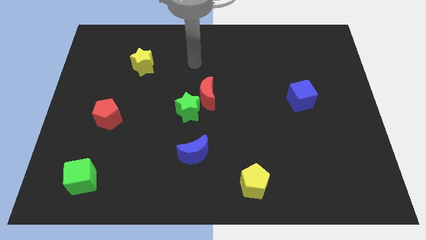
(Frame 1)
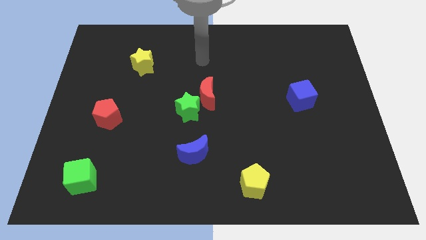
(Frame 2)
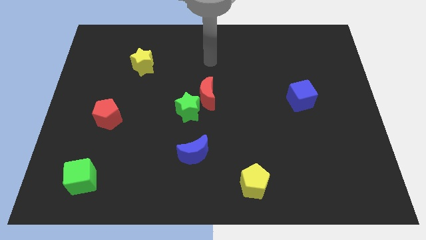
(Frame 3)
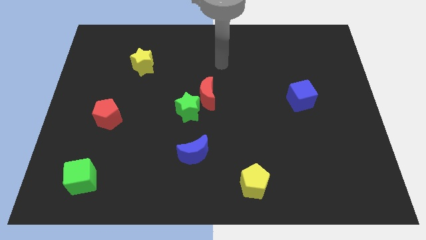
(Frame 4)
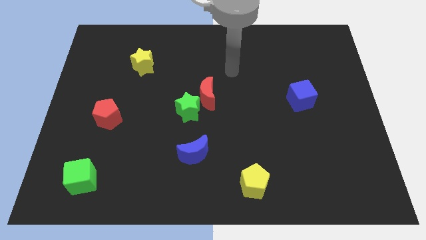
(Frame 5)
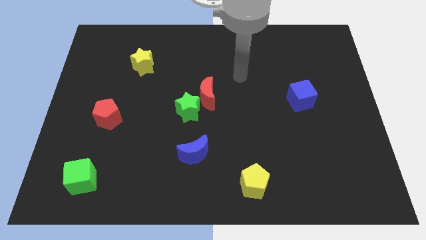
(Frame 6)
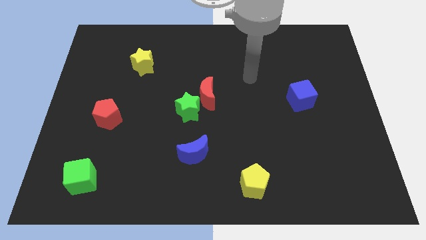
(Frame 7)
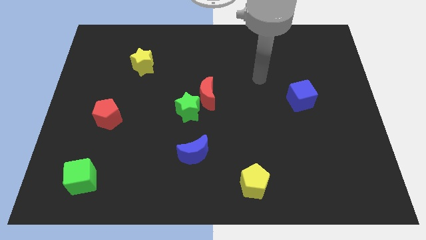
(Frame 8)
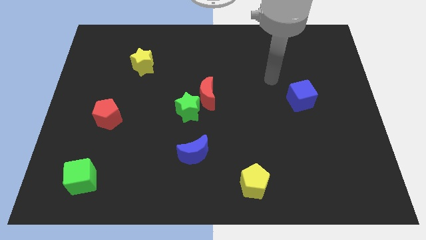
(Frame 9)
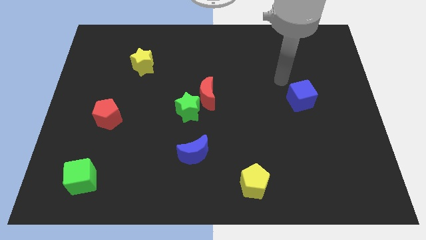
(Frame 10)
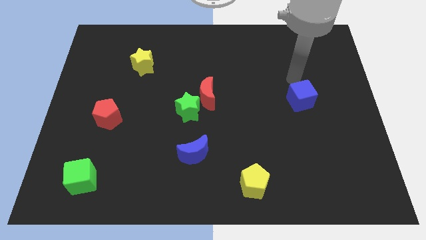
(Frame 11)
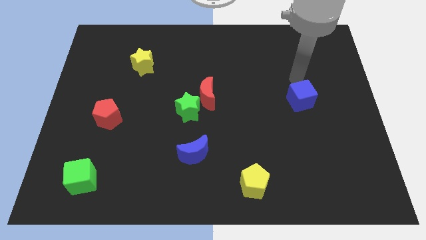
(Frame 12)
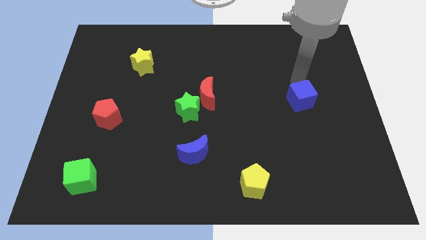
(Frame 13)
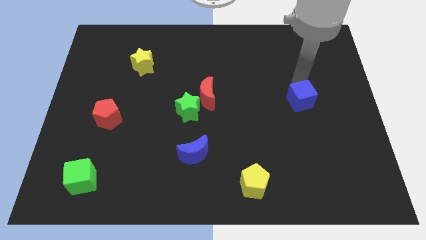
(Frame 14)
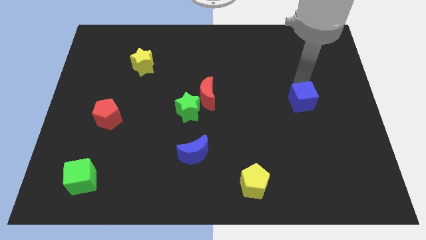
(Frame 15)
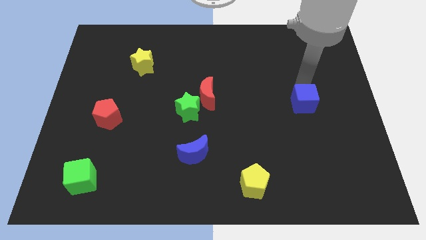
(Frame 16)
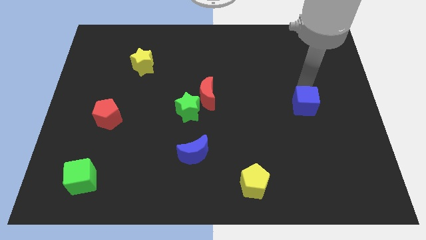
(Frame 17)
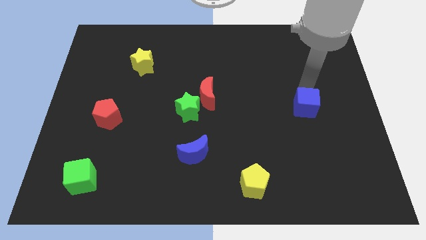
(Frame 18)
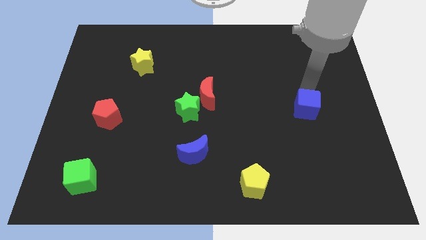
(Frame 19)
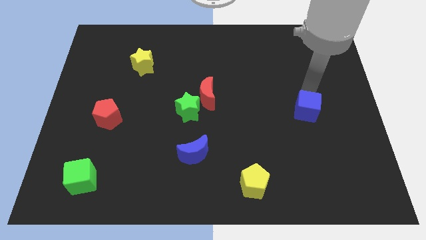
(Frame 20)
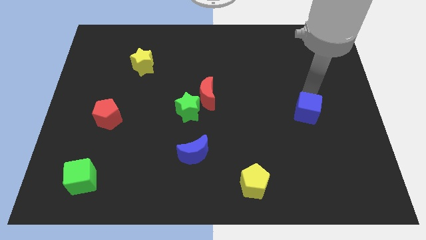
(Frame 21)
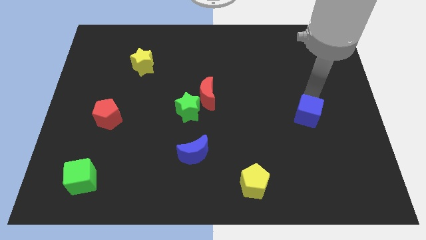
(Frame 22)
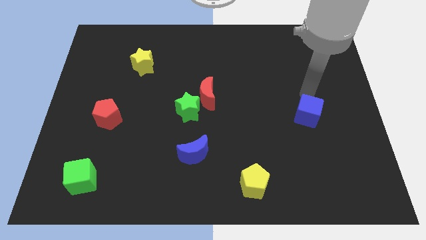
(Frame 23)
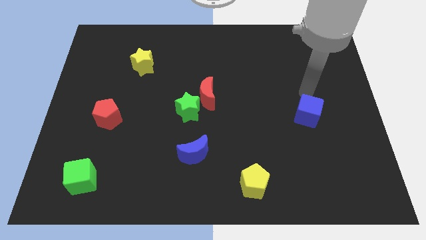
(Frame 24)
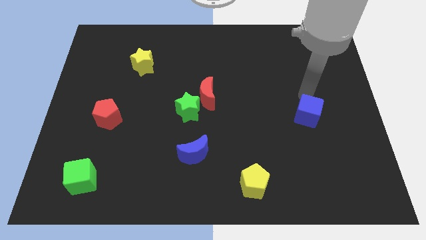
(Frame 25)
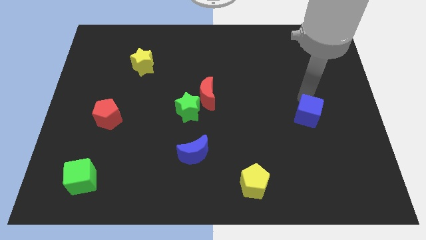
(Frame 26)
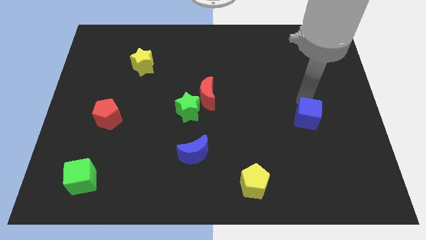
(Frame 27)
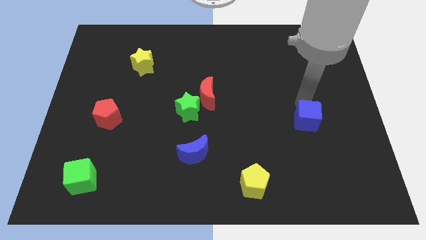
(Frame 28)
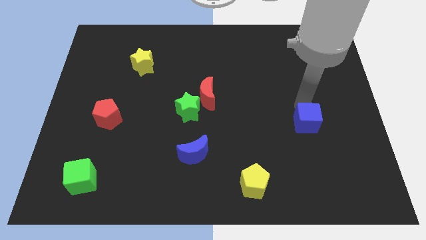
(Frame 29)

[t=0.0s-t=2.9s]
slightly slide the blue cube down

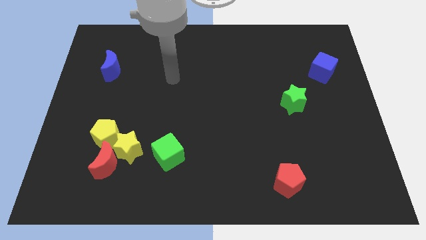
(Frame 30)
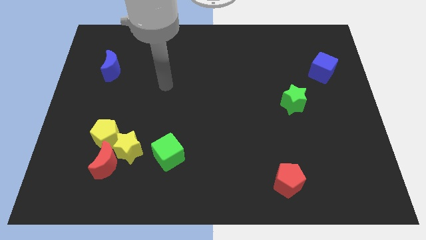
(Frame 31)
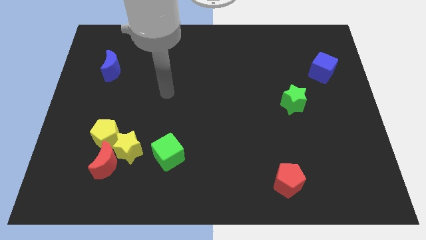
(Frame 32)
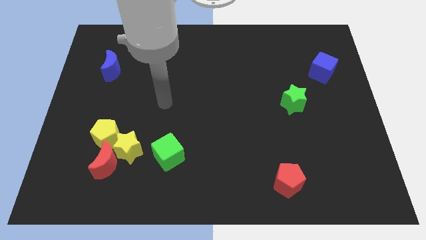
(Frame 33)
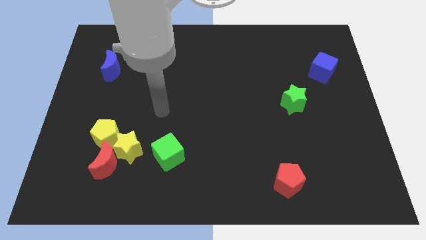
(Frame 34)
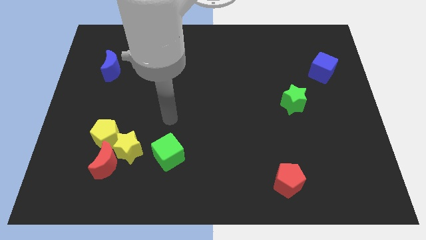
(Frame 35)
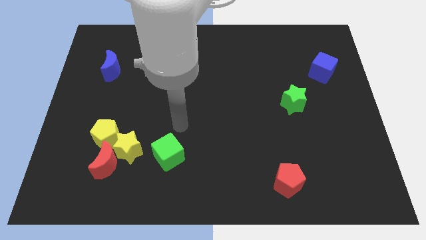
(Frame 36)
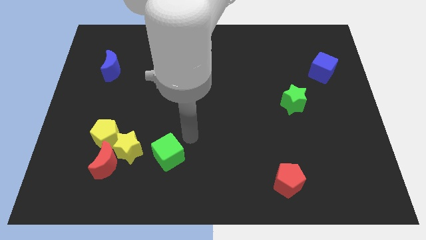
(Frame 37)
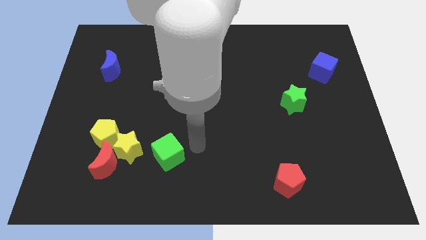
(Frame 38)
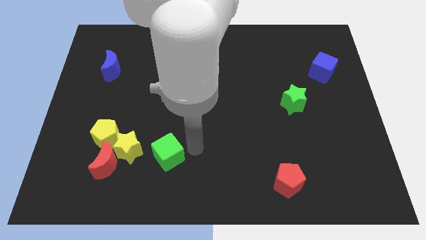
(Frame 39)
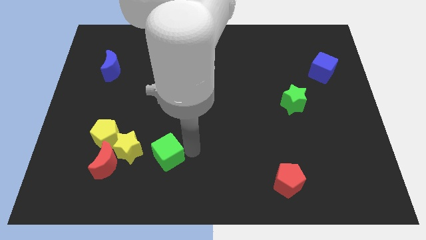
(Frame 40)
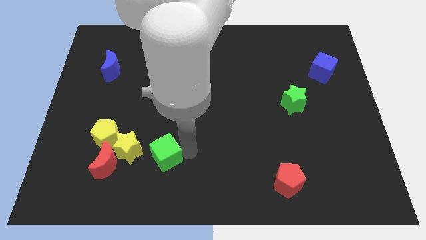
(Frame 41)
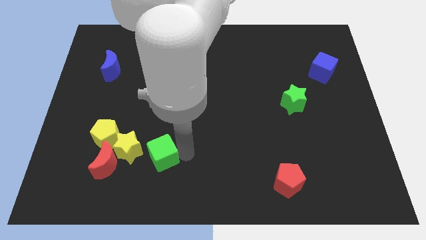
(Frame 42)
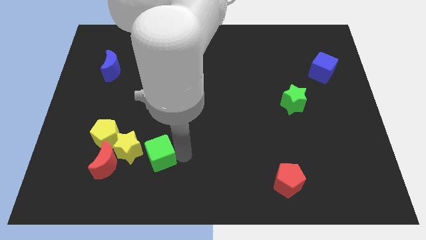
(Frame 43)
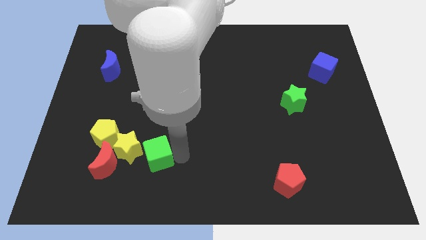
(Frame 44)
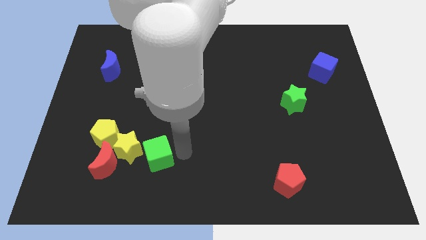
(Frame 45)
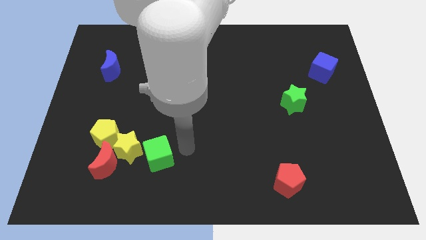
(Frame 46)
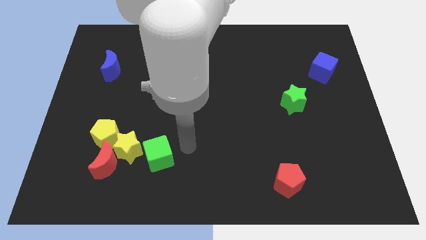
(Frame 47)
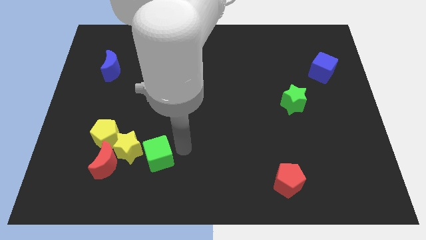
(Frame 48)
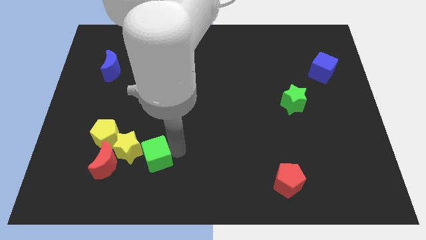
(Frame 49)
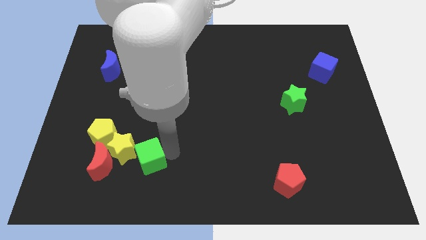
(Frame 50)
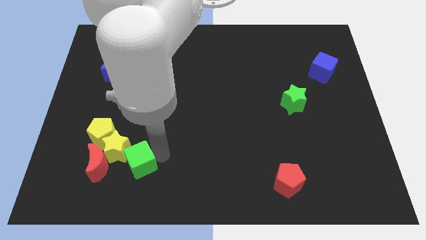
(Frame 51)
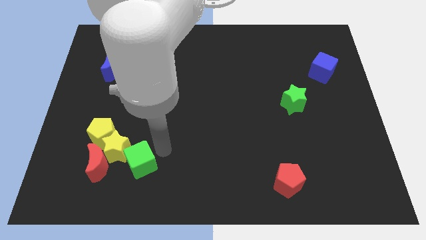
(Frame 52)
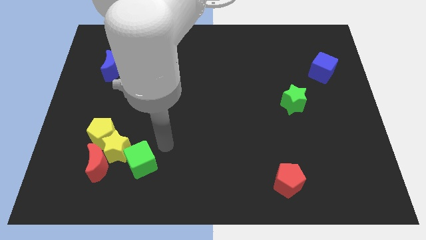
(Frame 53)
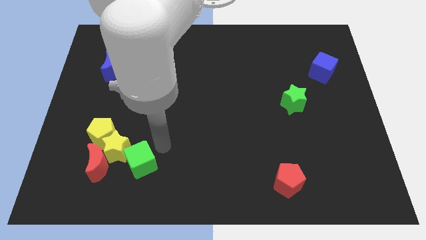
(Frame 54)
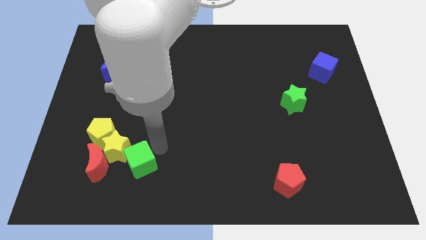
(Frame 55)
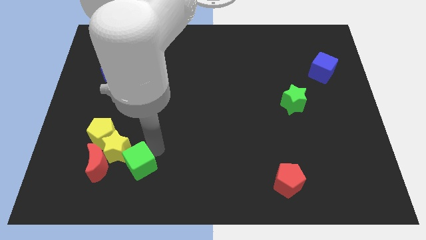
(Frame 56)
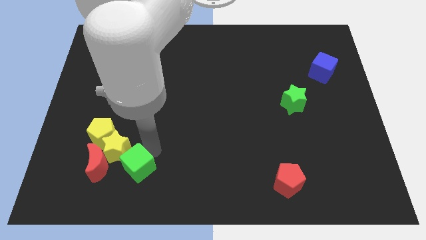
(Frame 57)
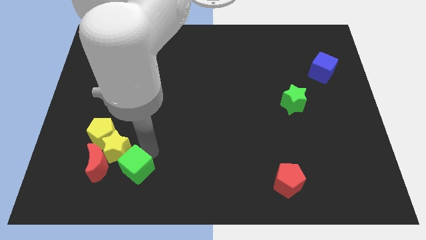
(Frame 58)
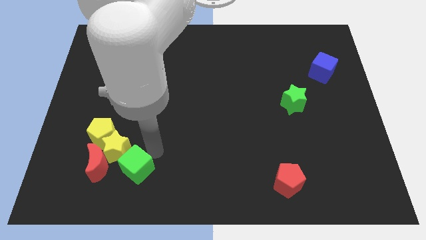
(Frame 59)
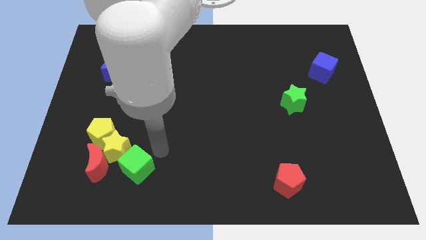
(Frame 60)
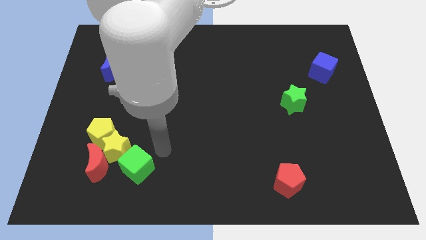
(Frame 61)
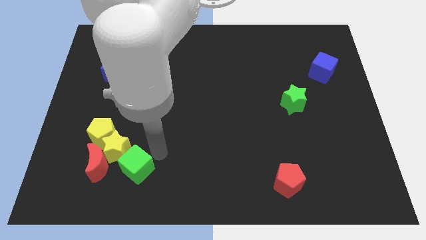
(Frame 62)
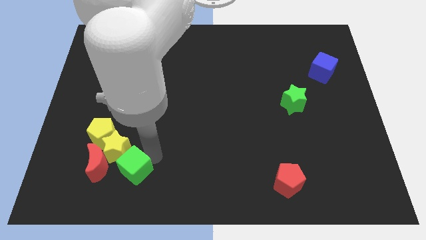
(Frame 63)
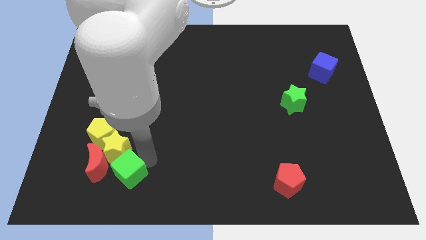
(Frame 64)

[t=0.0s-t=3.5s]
slightly slide the green cube left

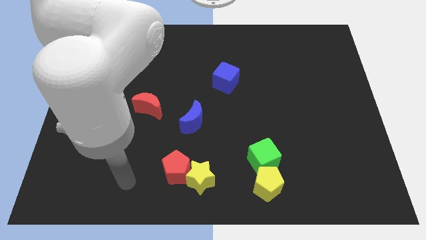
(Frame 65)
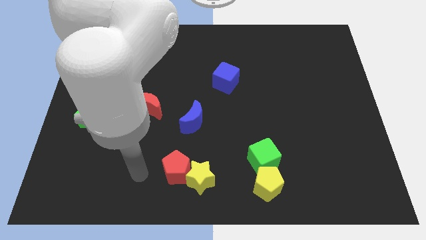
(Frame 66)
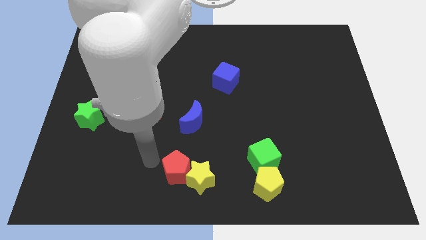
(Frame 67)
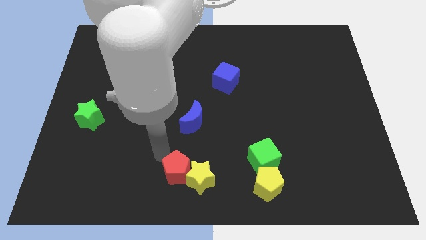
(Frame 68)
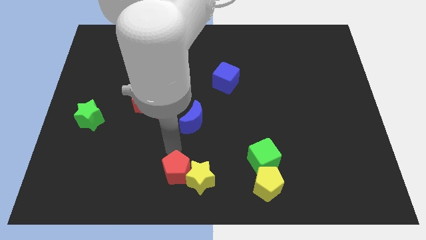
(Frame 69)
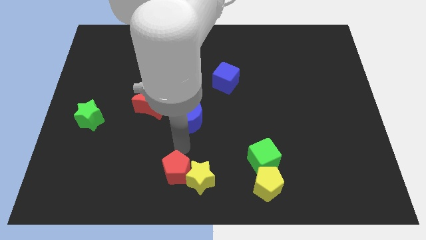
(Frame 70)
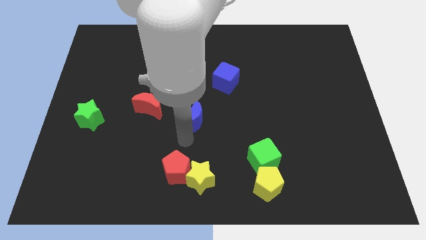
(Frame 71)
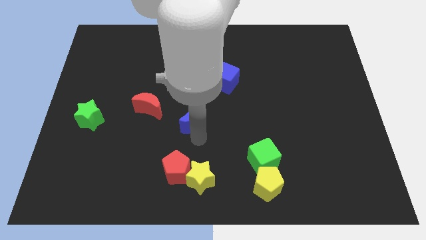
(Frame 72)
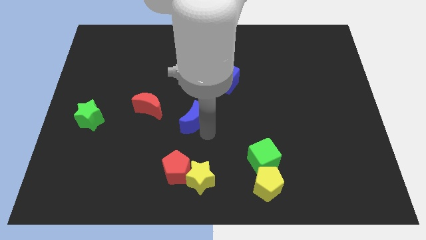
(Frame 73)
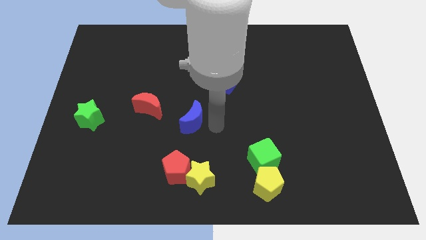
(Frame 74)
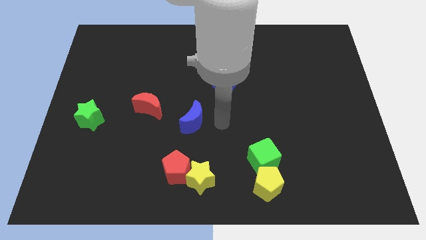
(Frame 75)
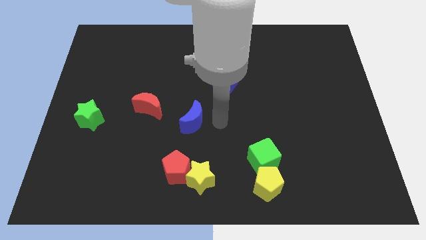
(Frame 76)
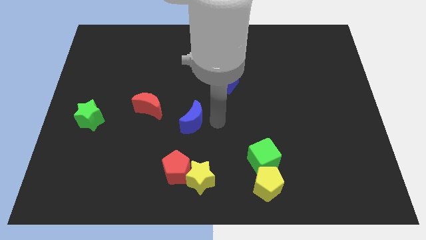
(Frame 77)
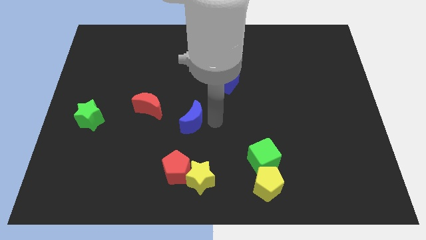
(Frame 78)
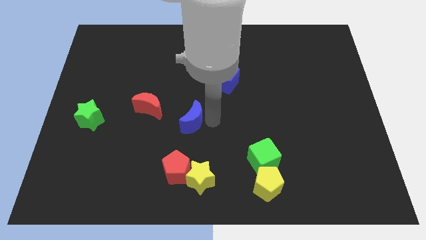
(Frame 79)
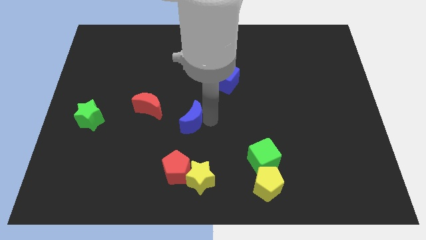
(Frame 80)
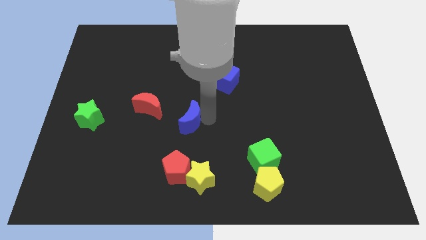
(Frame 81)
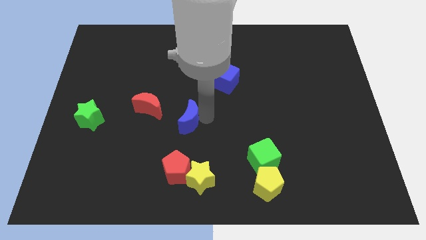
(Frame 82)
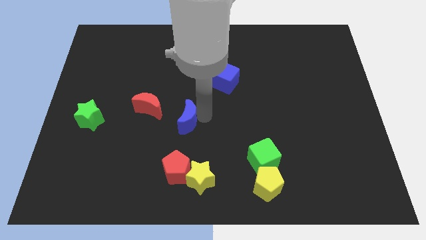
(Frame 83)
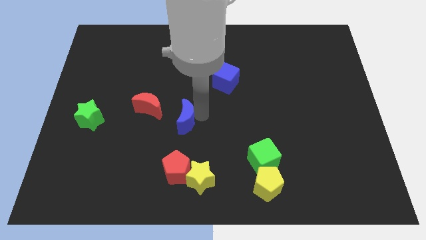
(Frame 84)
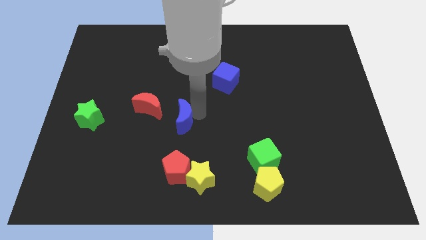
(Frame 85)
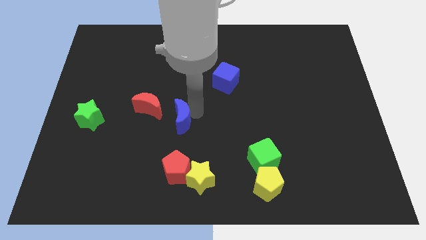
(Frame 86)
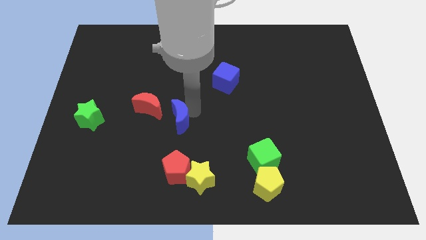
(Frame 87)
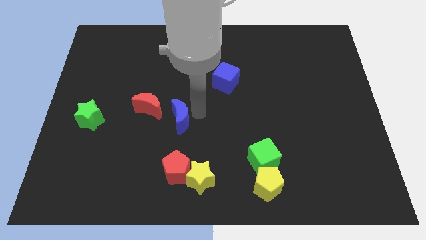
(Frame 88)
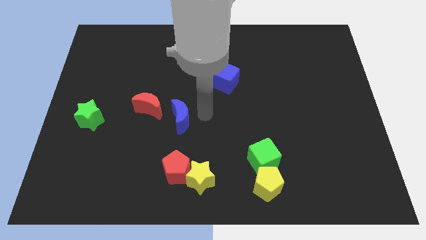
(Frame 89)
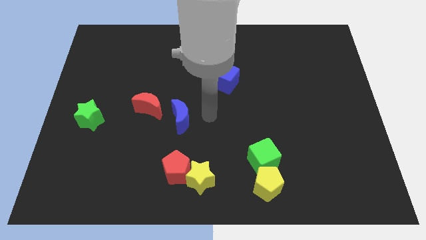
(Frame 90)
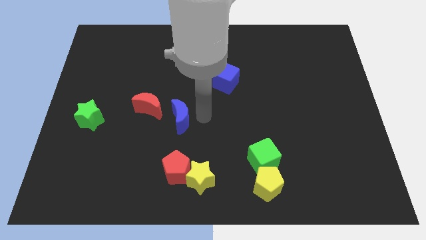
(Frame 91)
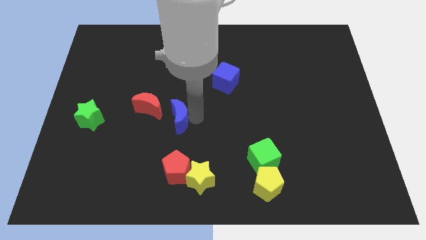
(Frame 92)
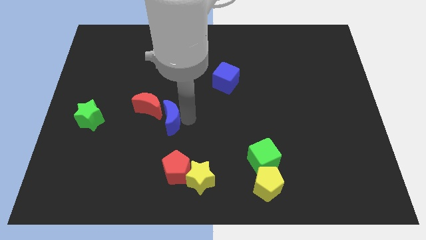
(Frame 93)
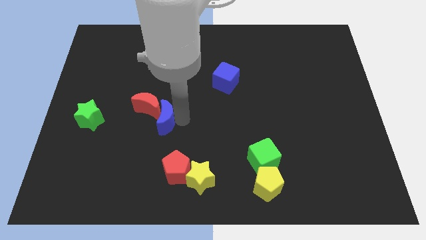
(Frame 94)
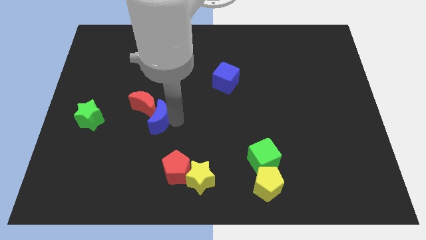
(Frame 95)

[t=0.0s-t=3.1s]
slightly push the blue moon to the left
